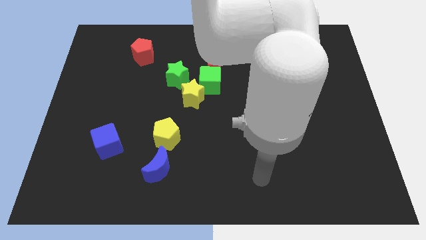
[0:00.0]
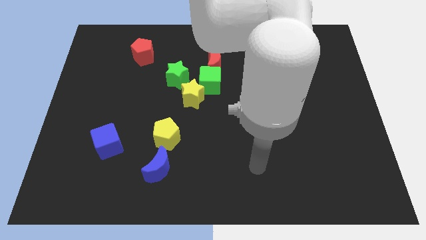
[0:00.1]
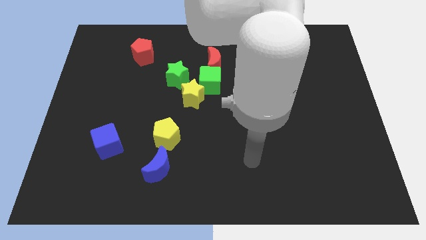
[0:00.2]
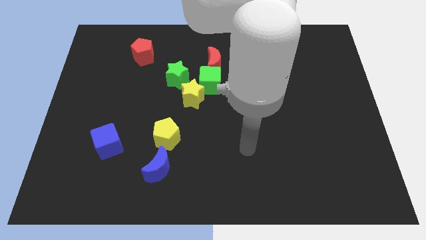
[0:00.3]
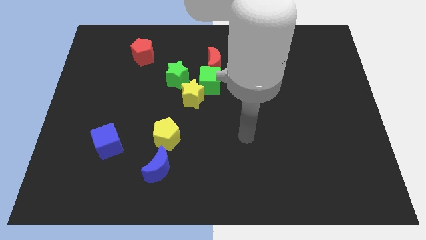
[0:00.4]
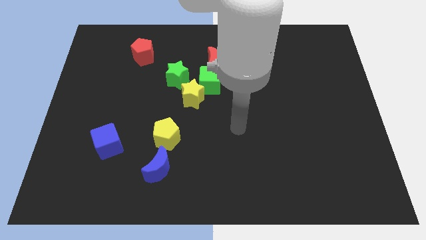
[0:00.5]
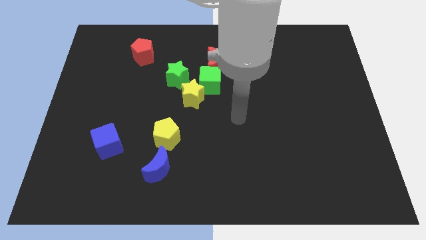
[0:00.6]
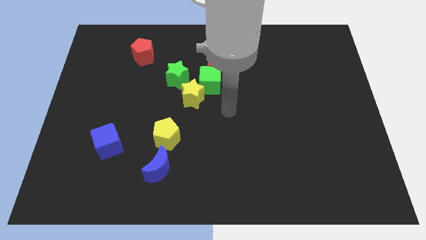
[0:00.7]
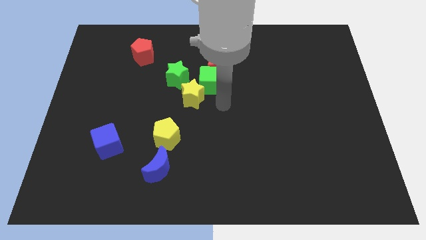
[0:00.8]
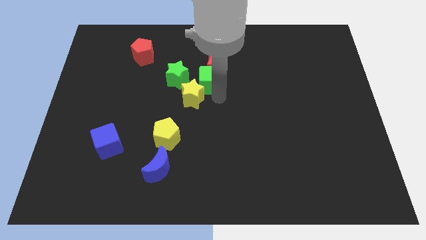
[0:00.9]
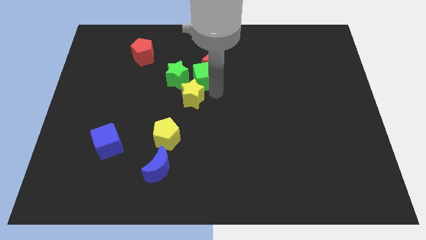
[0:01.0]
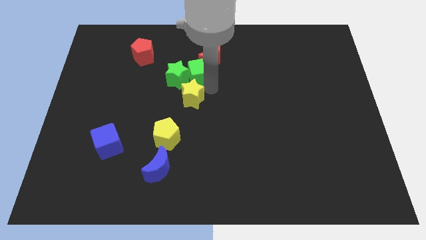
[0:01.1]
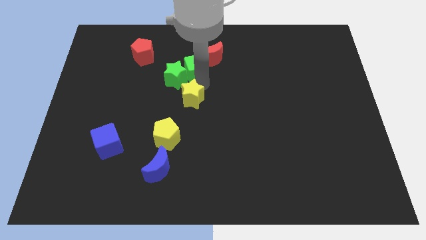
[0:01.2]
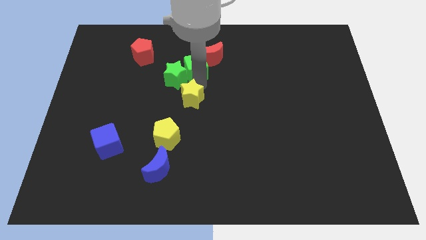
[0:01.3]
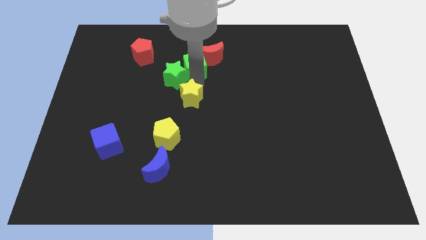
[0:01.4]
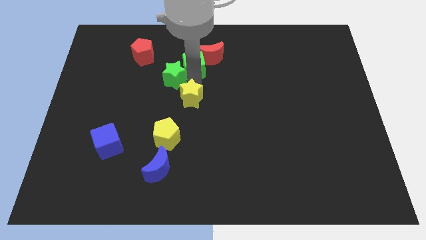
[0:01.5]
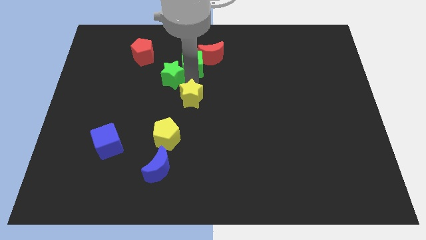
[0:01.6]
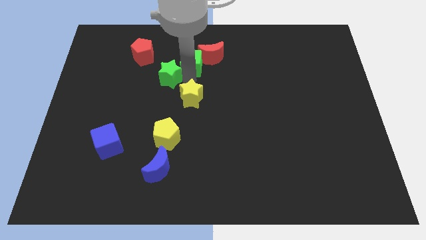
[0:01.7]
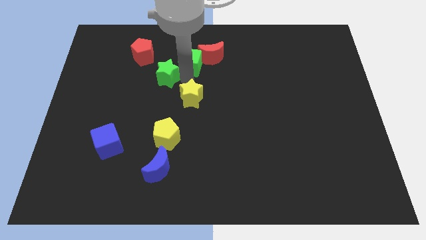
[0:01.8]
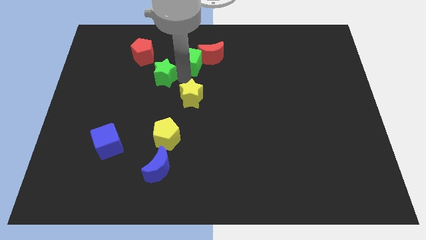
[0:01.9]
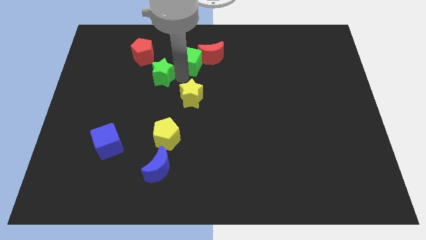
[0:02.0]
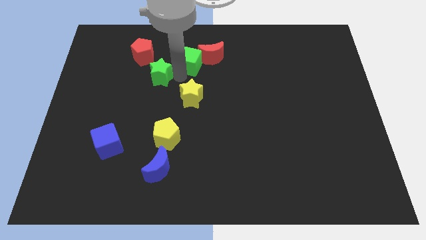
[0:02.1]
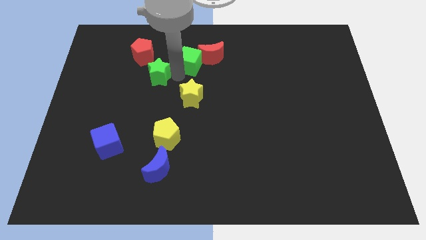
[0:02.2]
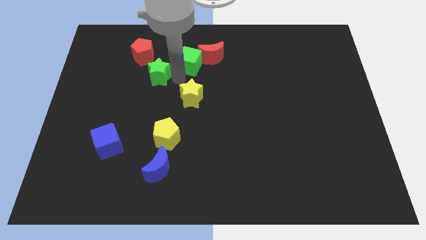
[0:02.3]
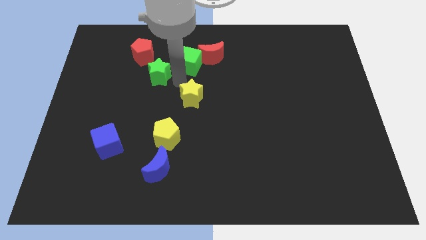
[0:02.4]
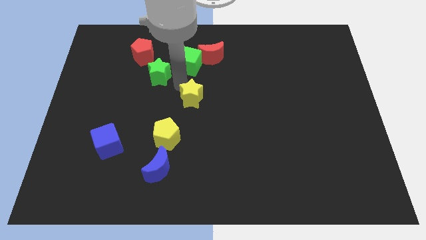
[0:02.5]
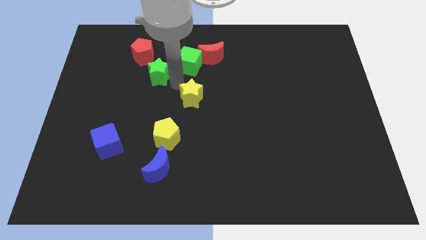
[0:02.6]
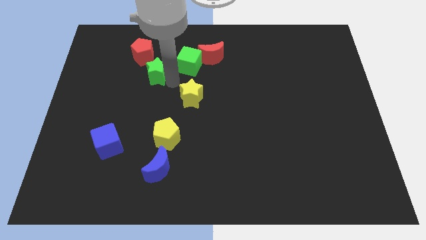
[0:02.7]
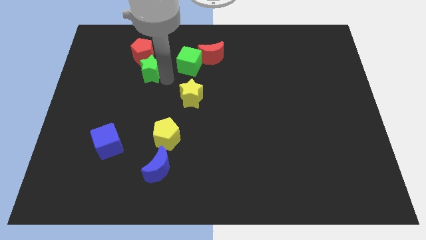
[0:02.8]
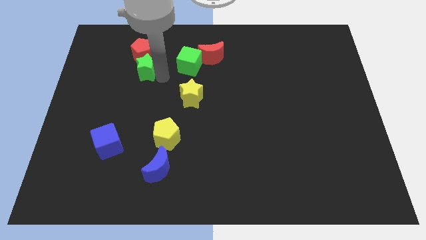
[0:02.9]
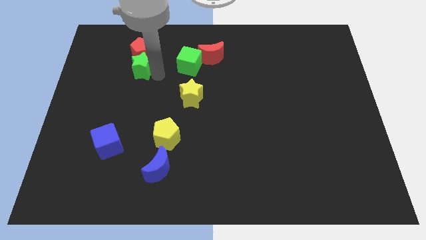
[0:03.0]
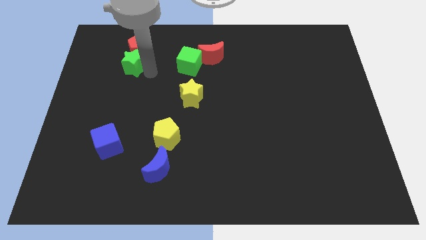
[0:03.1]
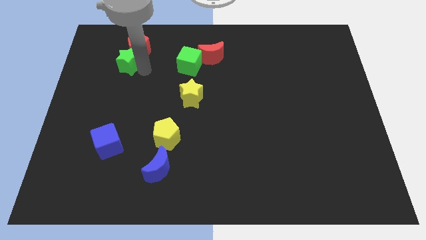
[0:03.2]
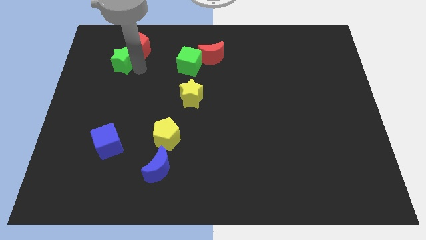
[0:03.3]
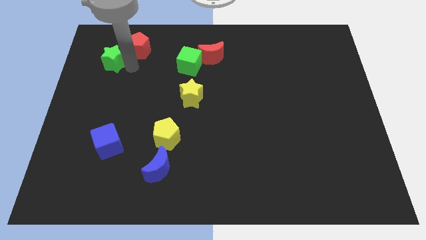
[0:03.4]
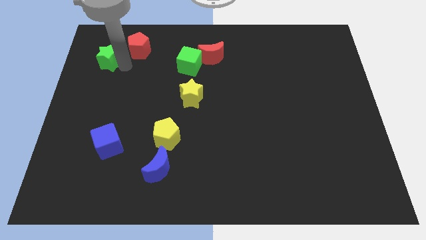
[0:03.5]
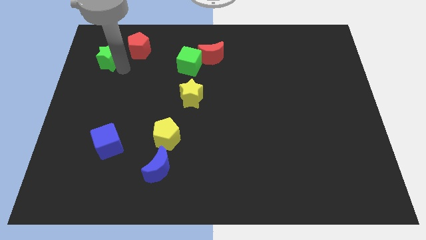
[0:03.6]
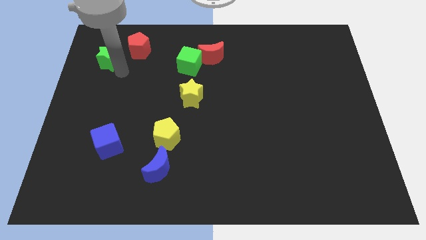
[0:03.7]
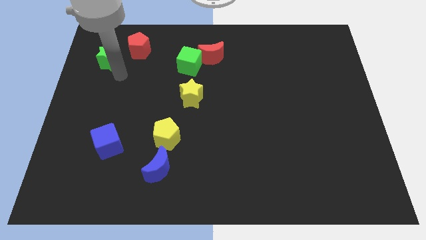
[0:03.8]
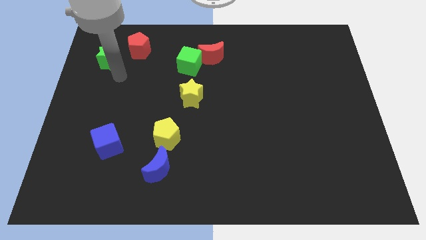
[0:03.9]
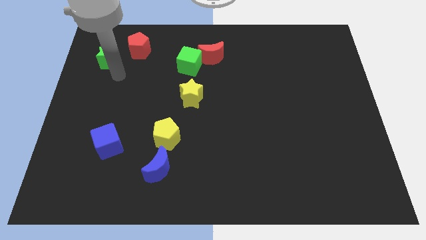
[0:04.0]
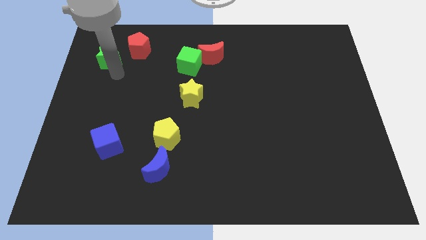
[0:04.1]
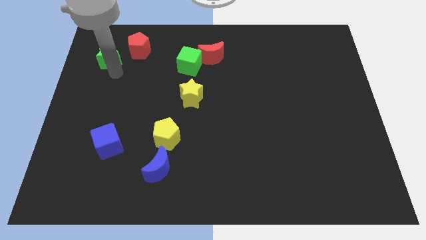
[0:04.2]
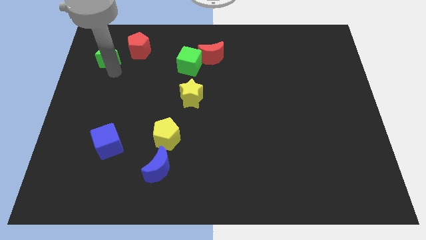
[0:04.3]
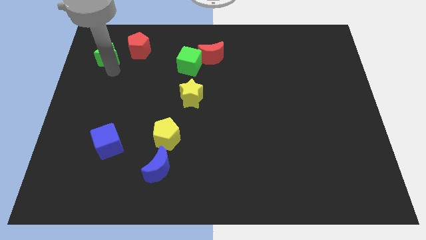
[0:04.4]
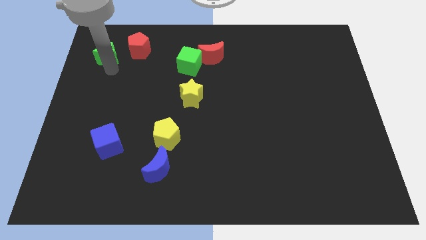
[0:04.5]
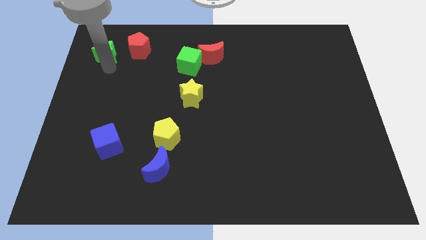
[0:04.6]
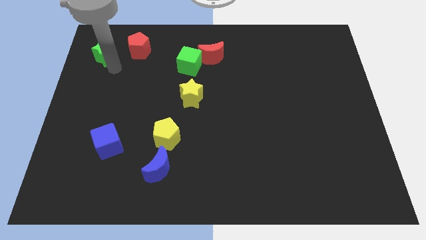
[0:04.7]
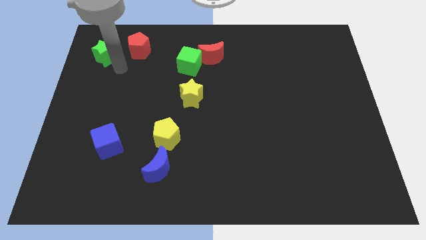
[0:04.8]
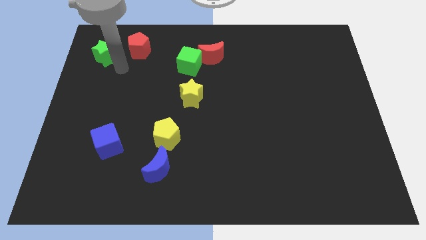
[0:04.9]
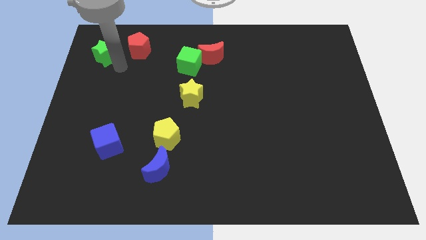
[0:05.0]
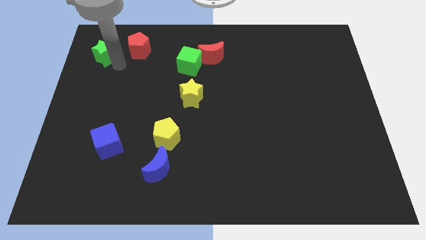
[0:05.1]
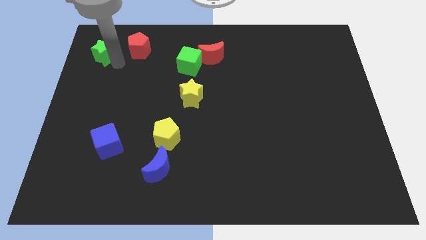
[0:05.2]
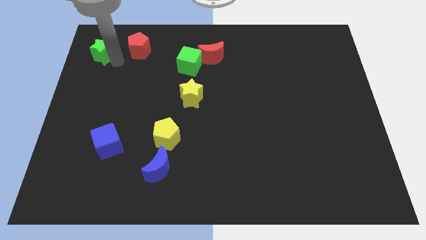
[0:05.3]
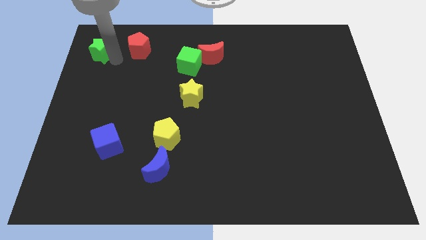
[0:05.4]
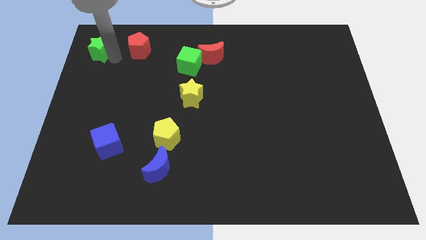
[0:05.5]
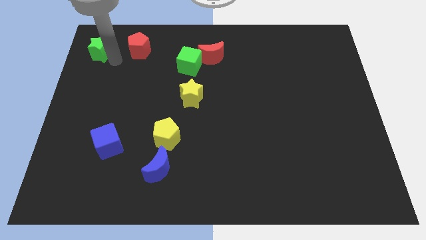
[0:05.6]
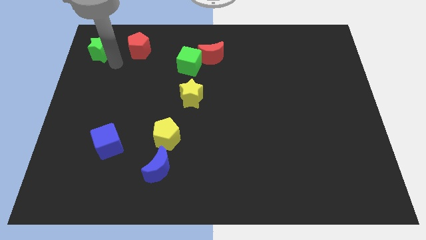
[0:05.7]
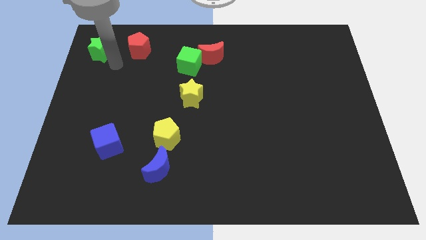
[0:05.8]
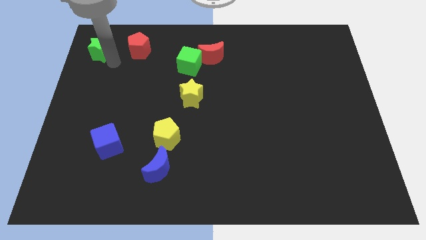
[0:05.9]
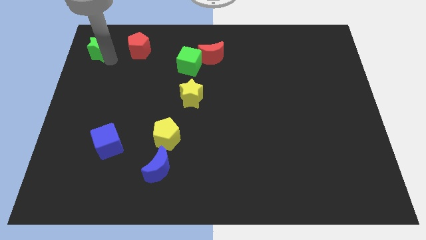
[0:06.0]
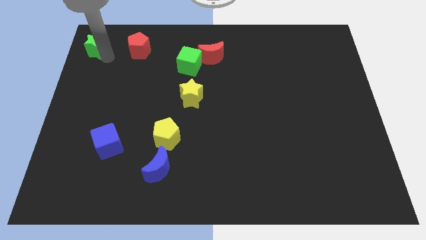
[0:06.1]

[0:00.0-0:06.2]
push the green star to the top left of the board
